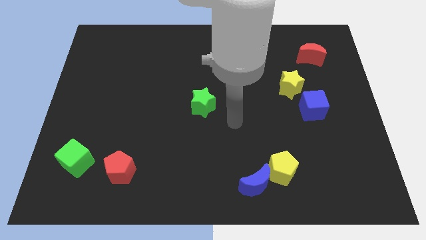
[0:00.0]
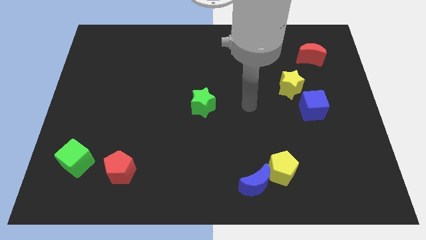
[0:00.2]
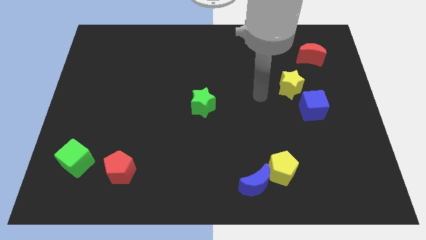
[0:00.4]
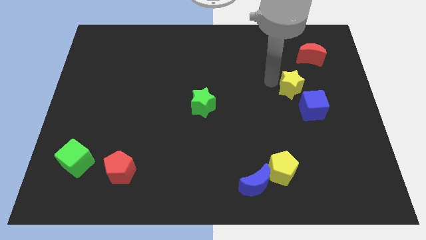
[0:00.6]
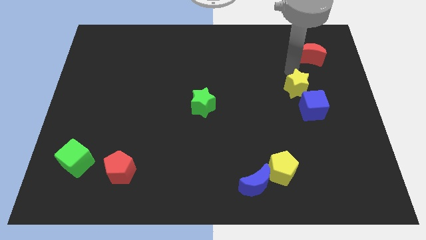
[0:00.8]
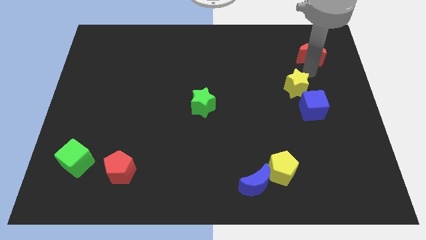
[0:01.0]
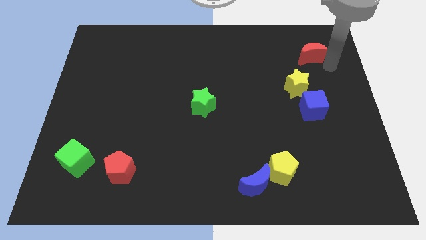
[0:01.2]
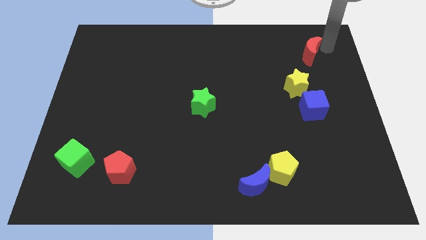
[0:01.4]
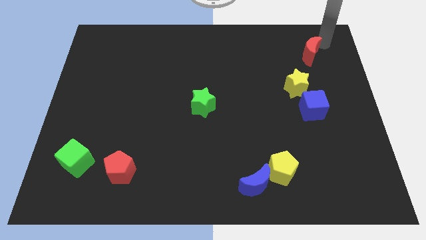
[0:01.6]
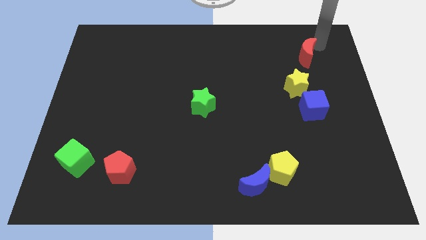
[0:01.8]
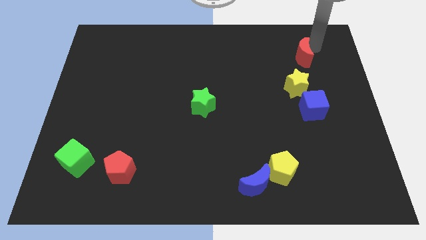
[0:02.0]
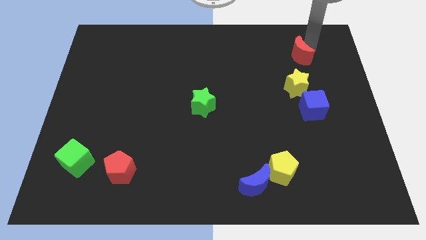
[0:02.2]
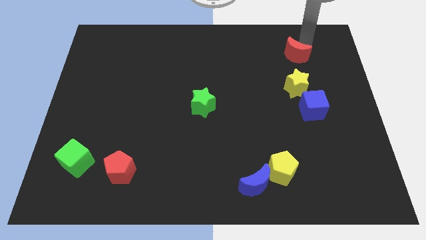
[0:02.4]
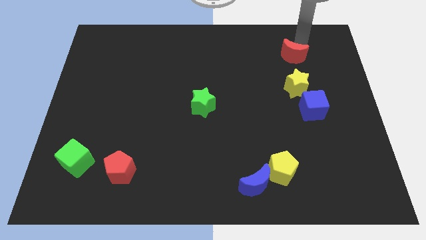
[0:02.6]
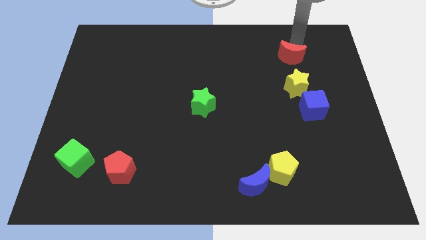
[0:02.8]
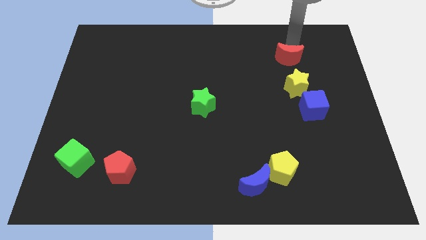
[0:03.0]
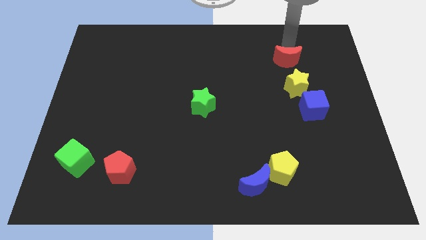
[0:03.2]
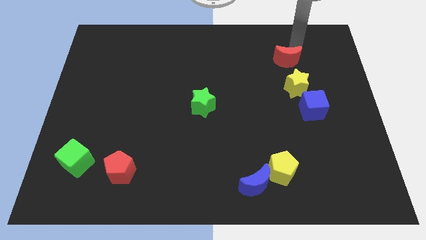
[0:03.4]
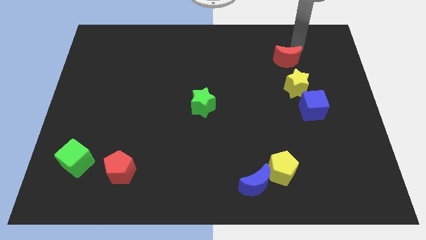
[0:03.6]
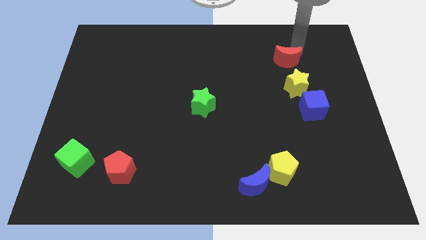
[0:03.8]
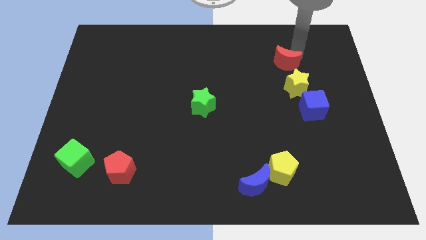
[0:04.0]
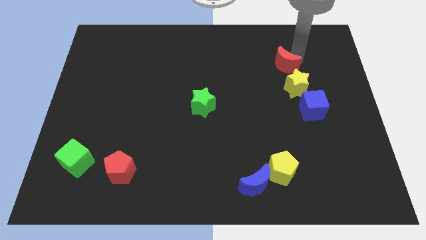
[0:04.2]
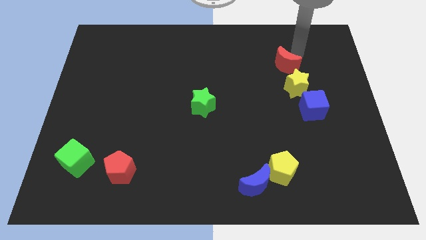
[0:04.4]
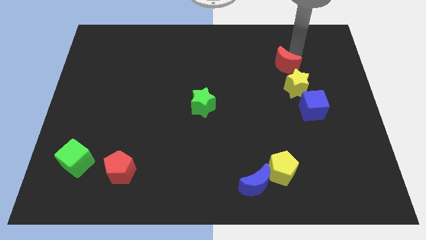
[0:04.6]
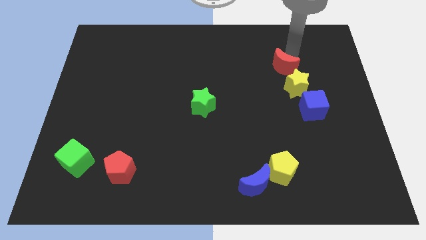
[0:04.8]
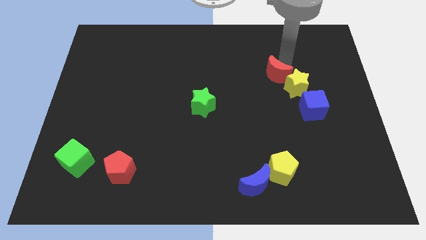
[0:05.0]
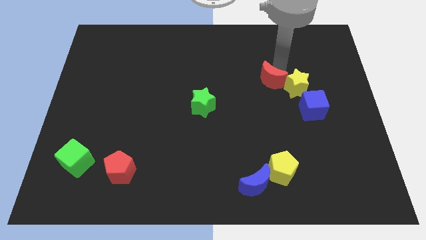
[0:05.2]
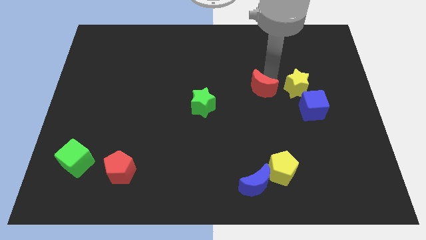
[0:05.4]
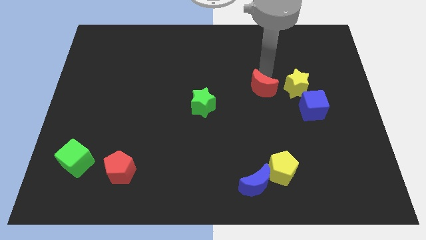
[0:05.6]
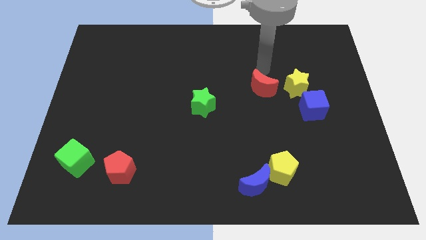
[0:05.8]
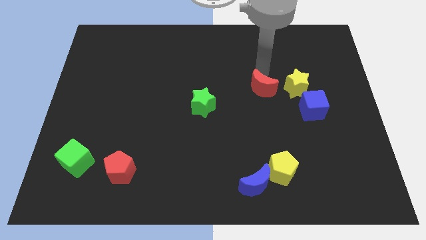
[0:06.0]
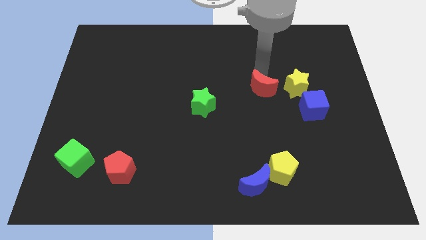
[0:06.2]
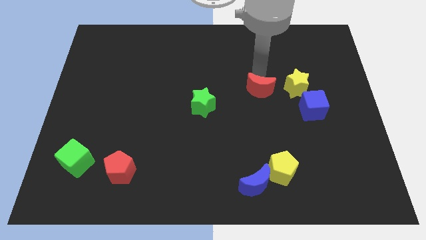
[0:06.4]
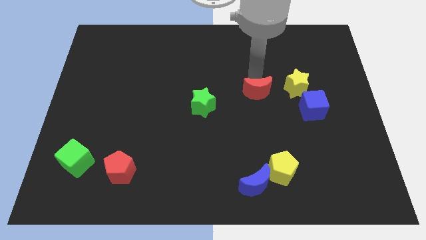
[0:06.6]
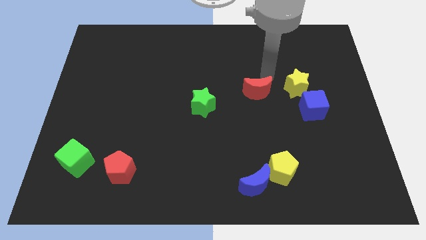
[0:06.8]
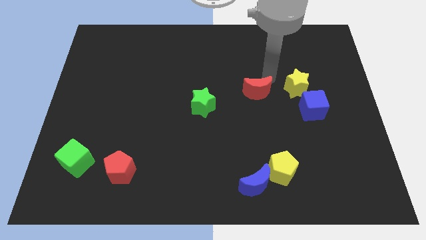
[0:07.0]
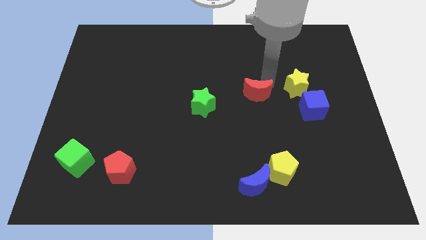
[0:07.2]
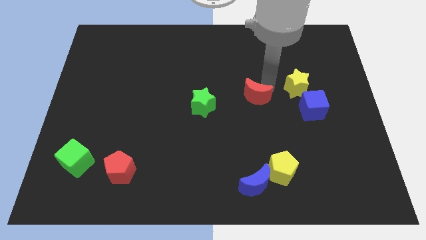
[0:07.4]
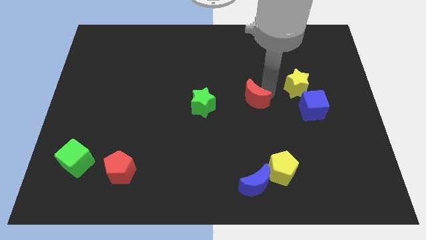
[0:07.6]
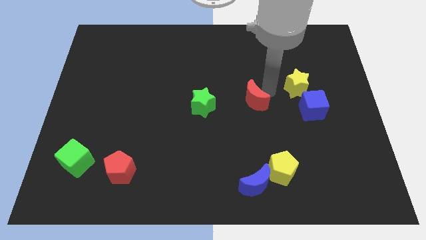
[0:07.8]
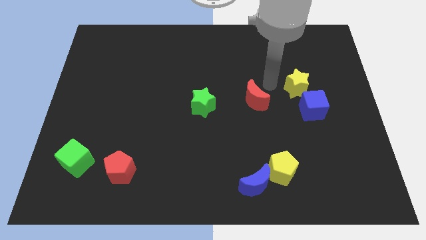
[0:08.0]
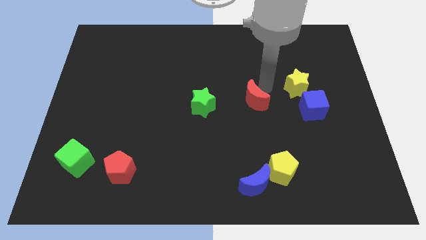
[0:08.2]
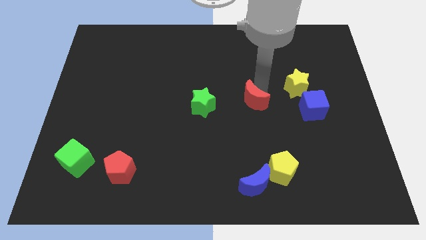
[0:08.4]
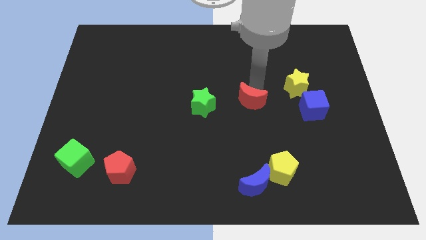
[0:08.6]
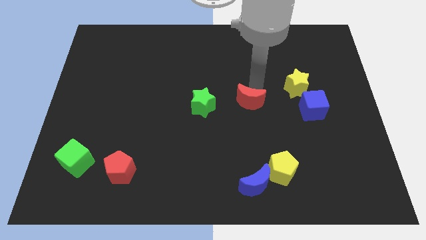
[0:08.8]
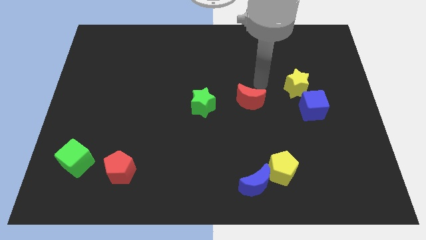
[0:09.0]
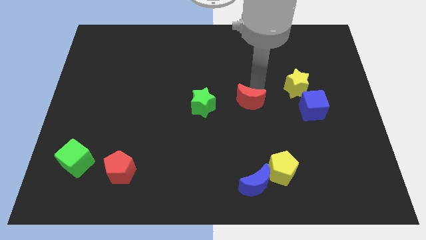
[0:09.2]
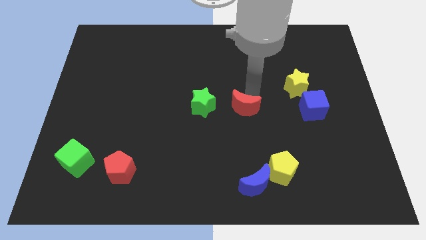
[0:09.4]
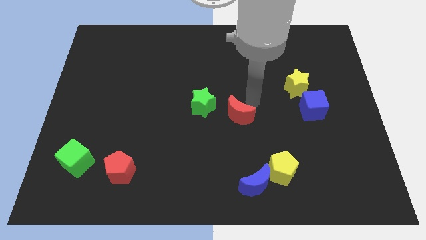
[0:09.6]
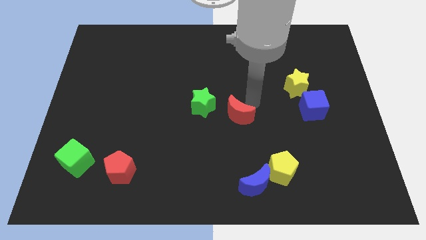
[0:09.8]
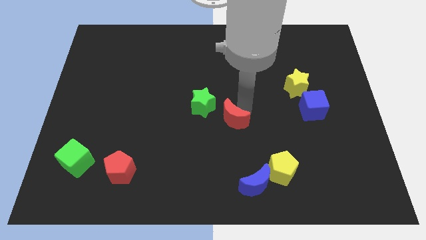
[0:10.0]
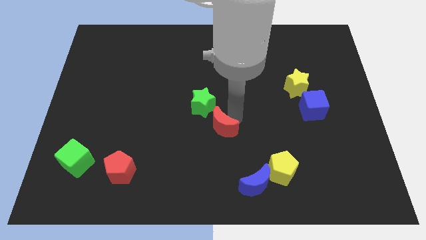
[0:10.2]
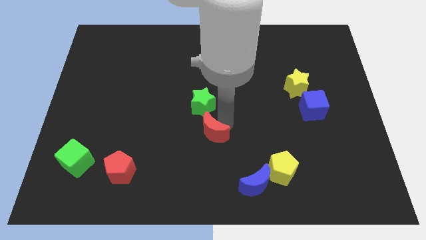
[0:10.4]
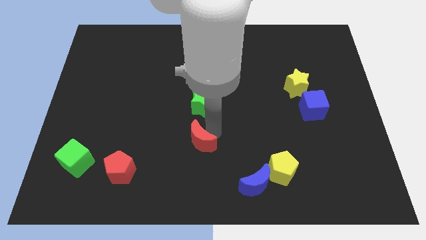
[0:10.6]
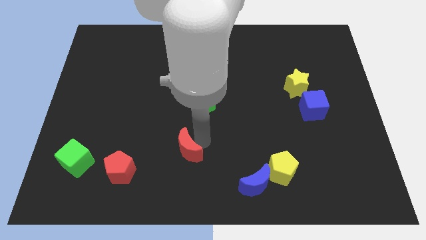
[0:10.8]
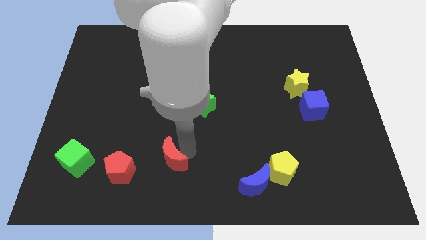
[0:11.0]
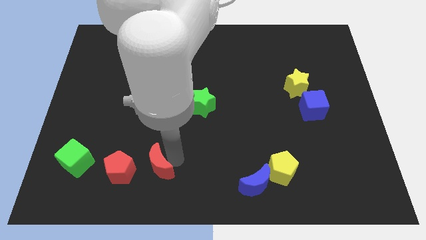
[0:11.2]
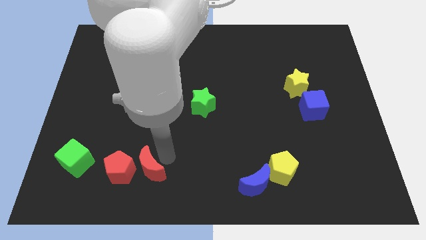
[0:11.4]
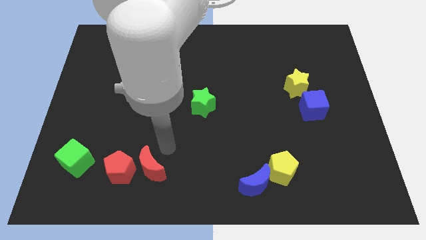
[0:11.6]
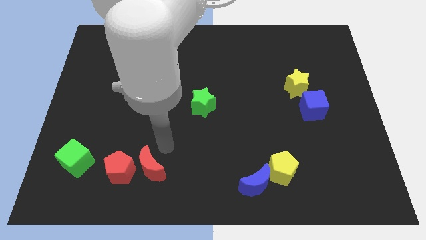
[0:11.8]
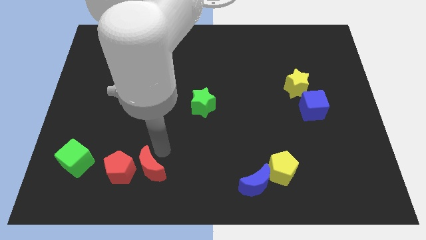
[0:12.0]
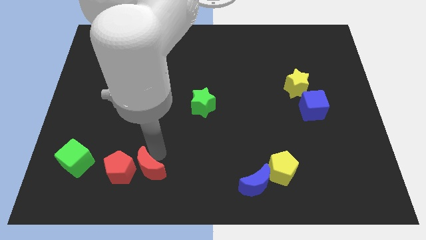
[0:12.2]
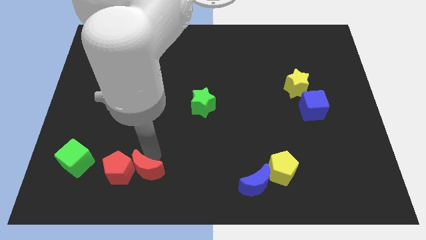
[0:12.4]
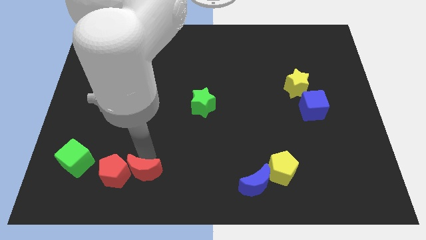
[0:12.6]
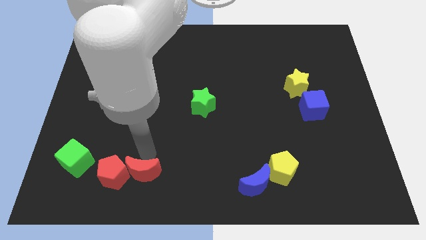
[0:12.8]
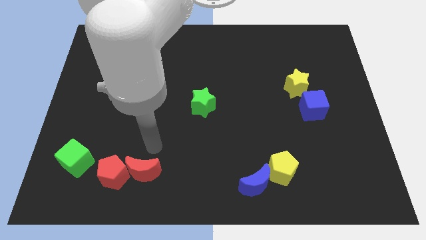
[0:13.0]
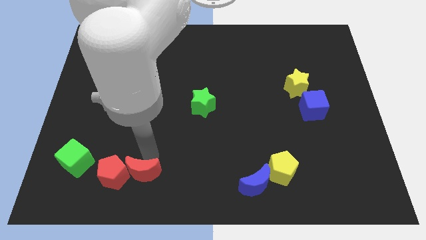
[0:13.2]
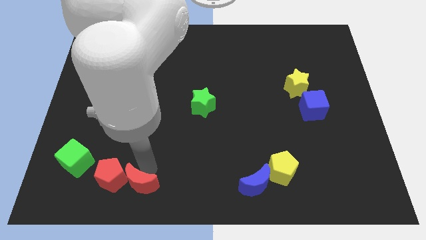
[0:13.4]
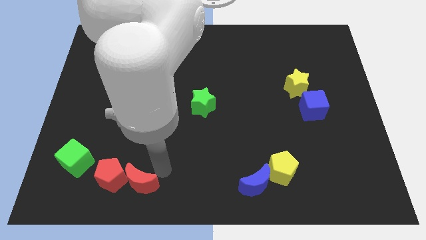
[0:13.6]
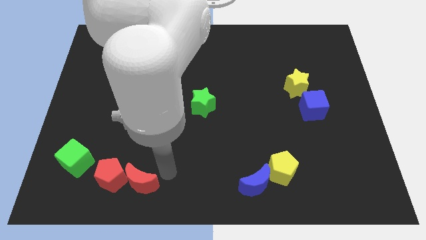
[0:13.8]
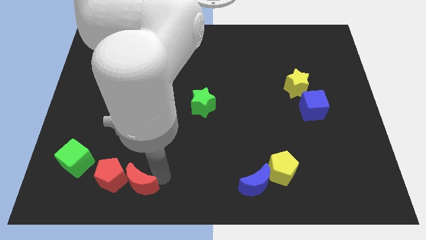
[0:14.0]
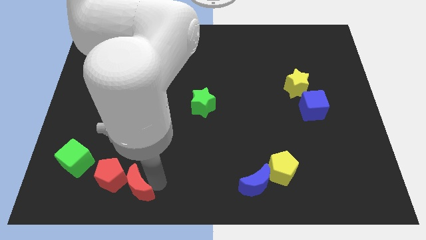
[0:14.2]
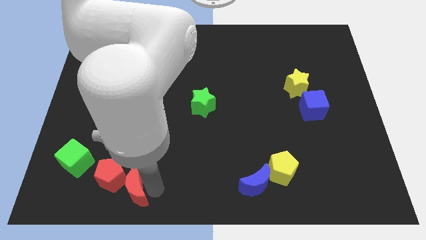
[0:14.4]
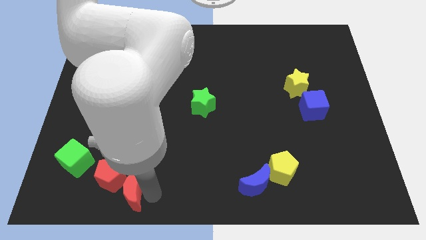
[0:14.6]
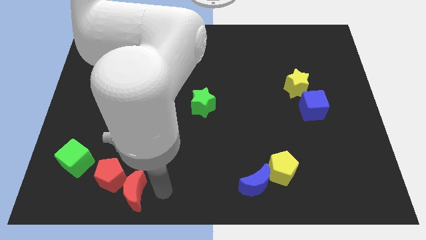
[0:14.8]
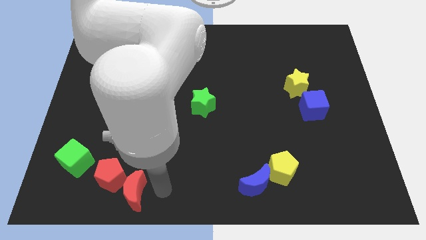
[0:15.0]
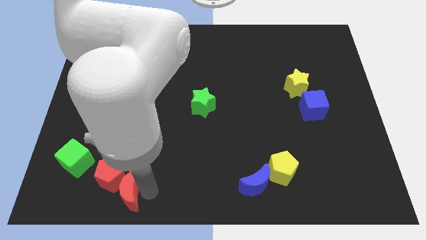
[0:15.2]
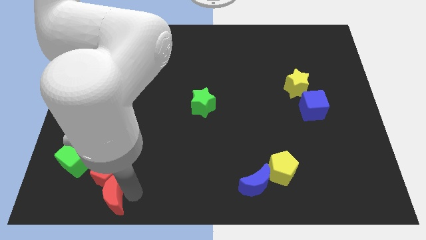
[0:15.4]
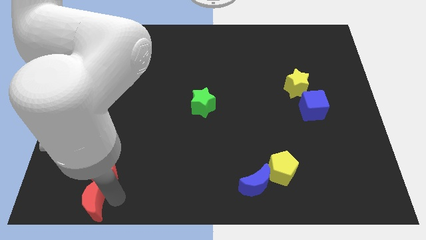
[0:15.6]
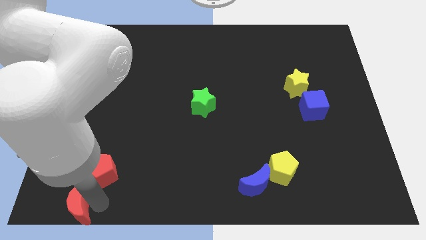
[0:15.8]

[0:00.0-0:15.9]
move the red moon to the bottom left corner
